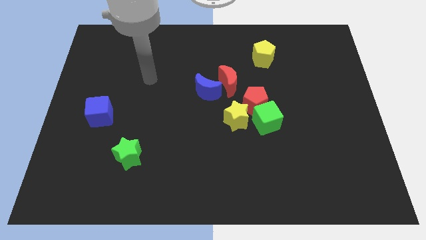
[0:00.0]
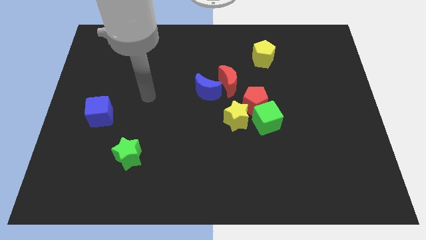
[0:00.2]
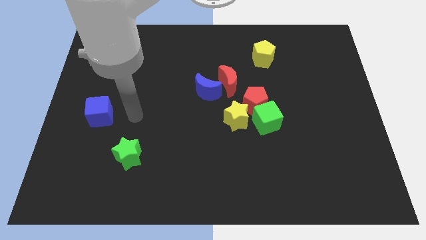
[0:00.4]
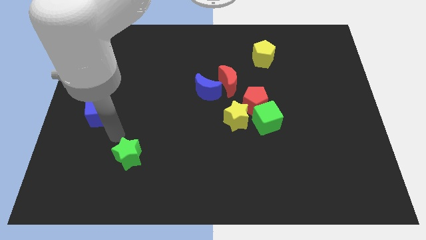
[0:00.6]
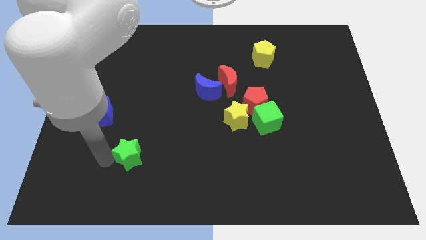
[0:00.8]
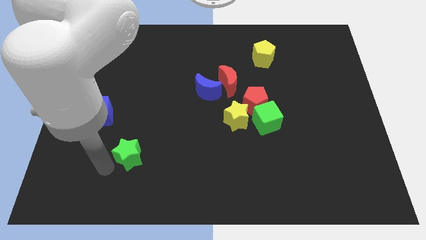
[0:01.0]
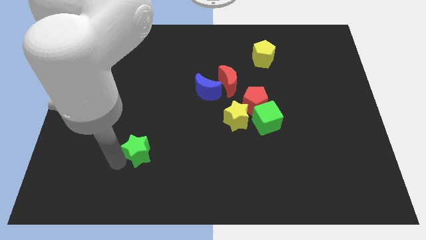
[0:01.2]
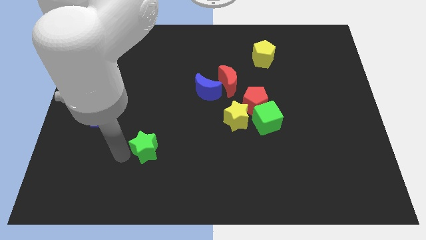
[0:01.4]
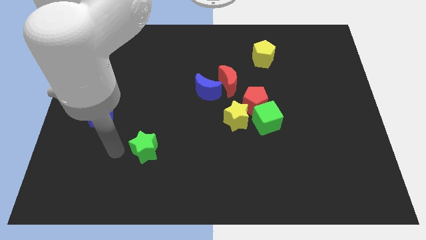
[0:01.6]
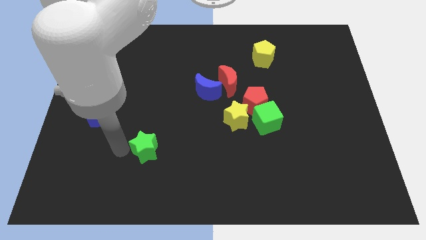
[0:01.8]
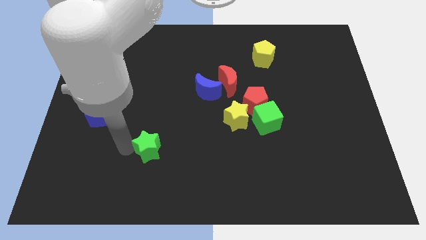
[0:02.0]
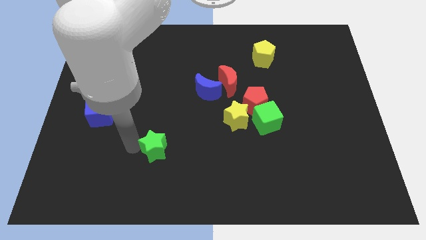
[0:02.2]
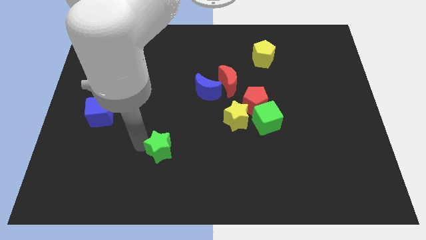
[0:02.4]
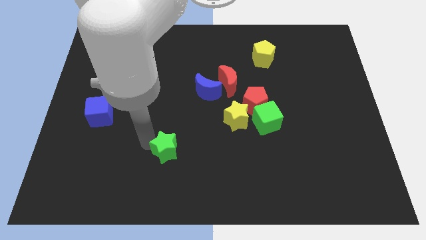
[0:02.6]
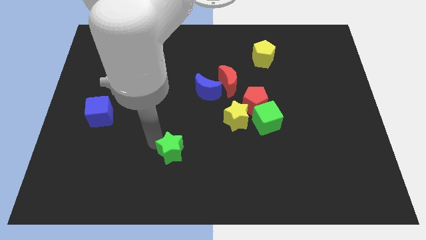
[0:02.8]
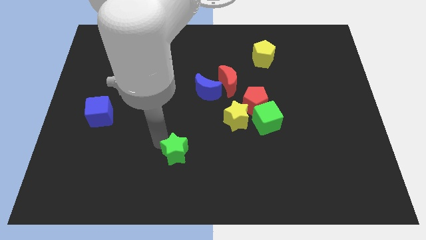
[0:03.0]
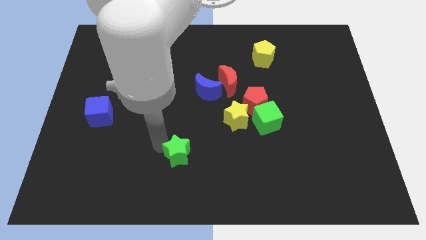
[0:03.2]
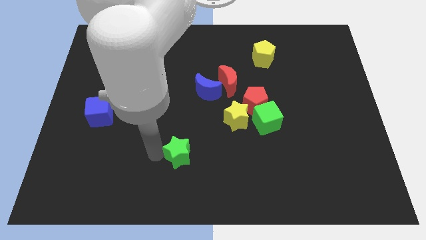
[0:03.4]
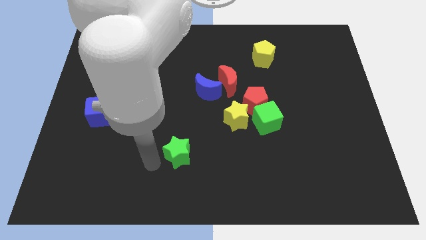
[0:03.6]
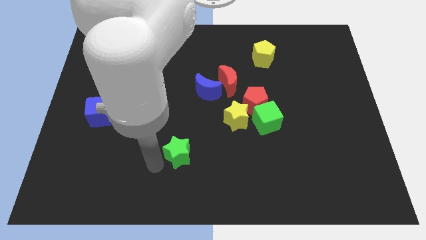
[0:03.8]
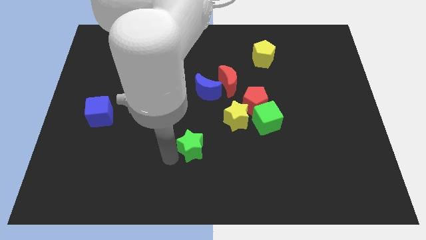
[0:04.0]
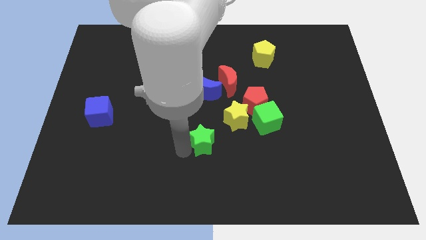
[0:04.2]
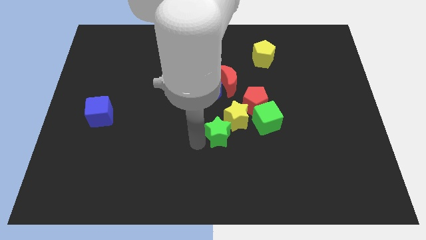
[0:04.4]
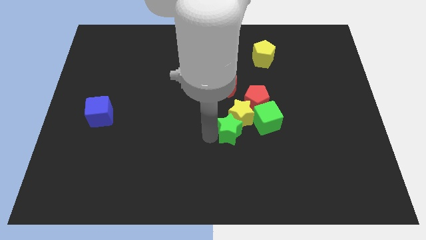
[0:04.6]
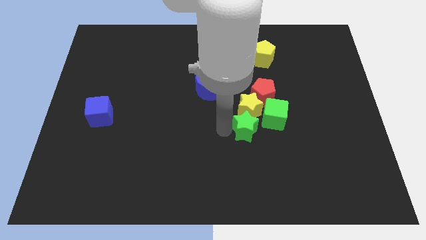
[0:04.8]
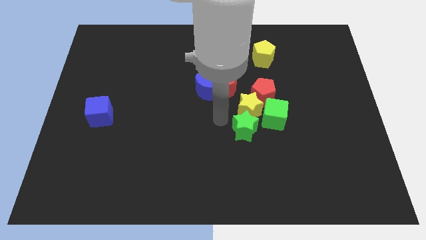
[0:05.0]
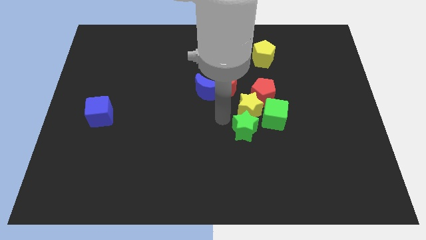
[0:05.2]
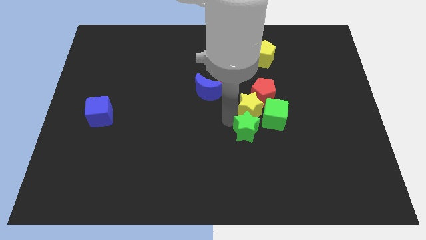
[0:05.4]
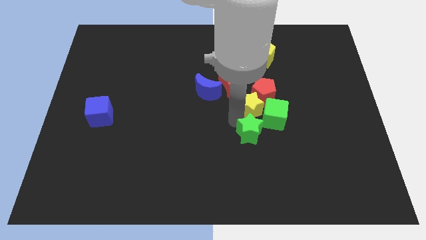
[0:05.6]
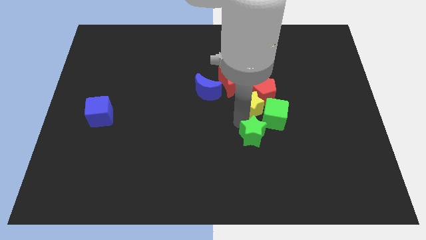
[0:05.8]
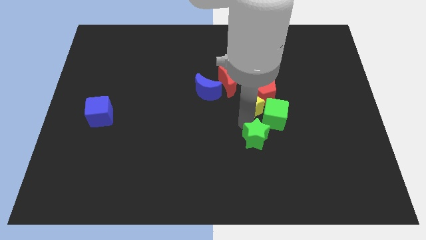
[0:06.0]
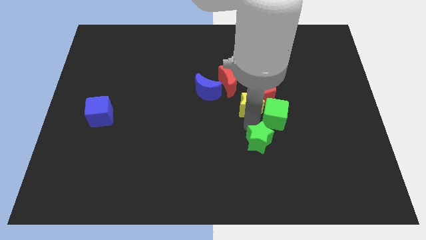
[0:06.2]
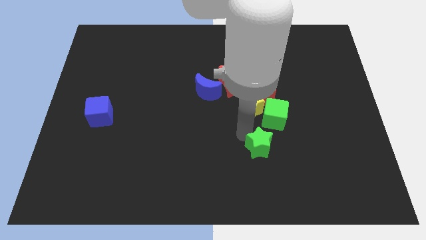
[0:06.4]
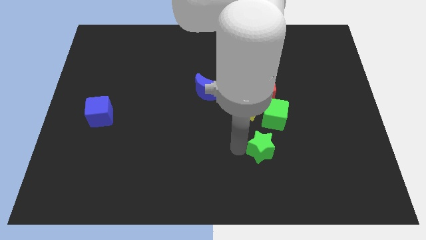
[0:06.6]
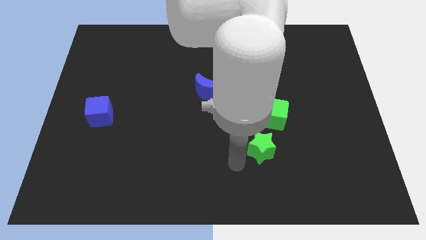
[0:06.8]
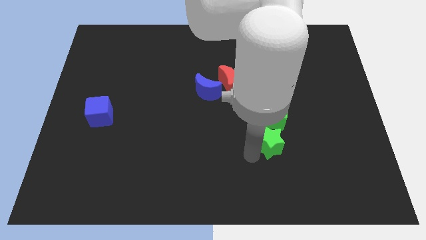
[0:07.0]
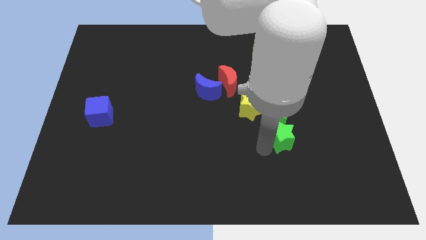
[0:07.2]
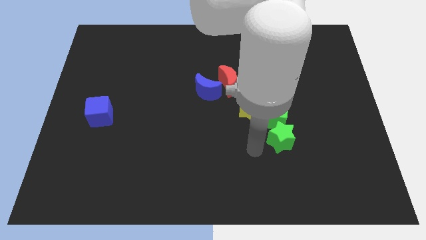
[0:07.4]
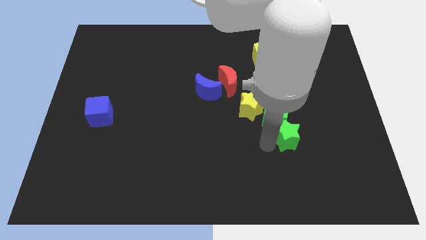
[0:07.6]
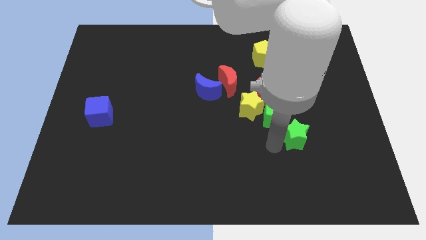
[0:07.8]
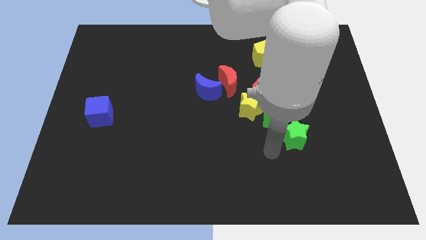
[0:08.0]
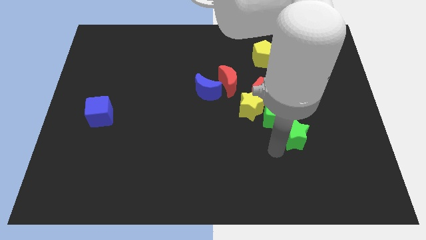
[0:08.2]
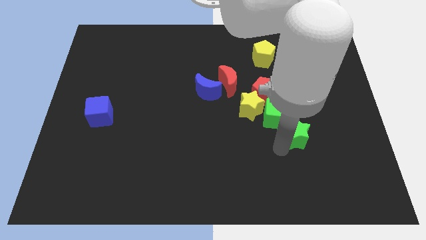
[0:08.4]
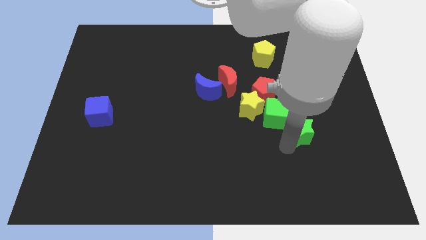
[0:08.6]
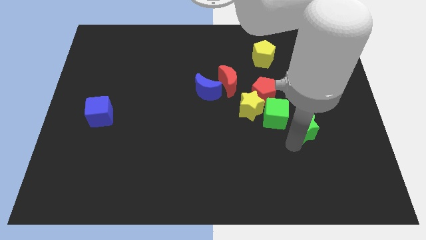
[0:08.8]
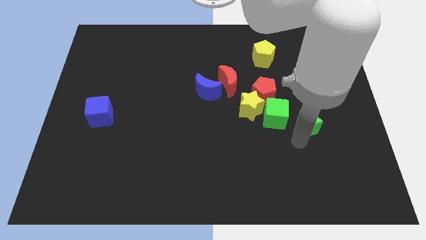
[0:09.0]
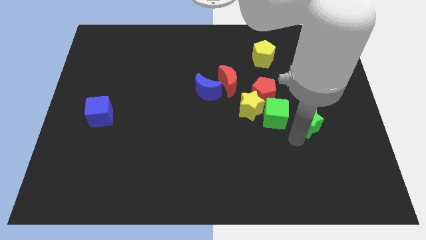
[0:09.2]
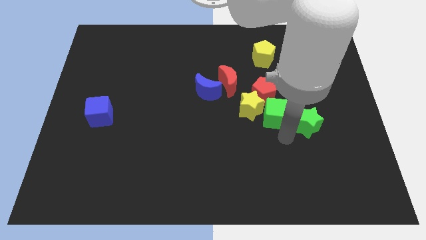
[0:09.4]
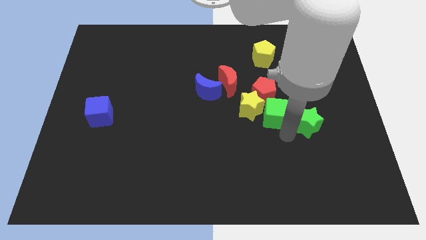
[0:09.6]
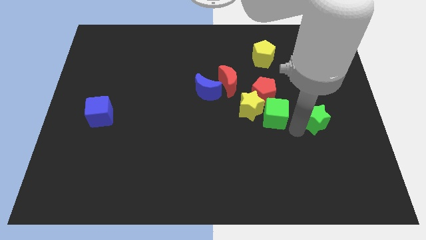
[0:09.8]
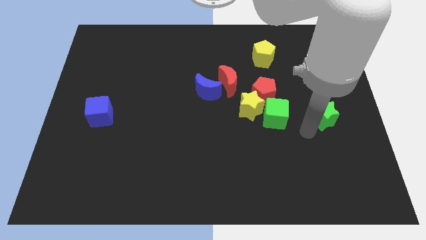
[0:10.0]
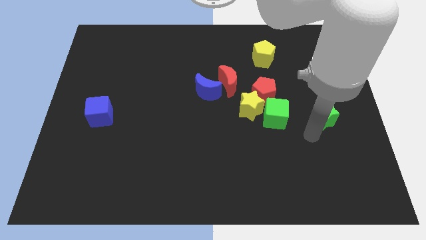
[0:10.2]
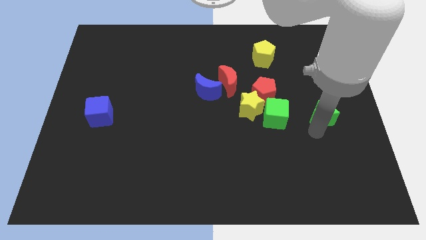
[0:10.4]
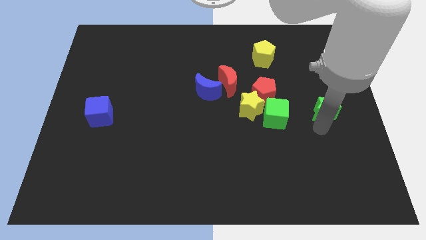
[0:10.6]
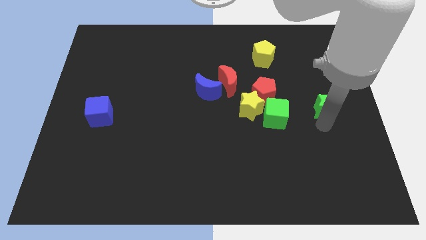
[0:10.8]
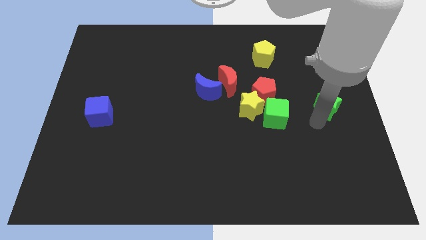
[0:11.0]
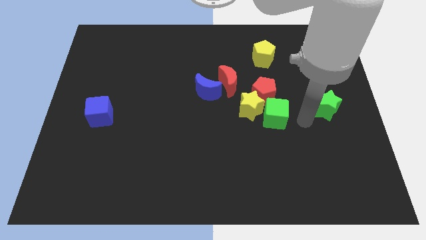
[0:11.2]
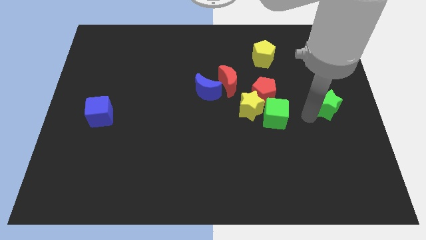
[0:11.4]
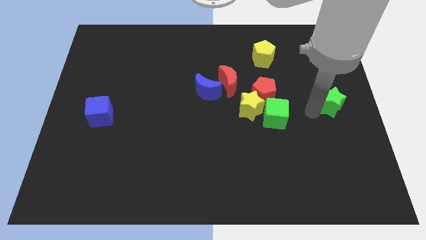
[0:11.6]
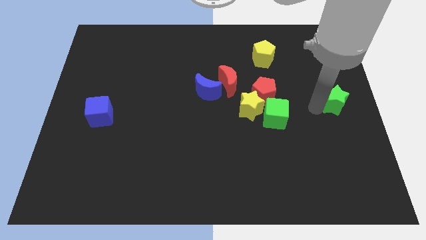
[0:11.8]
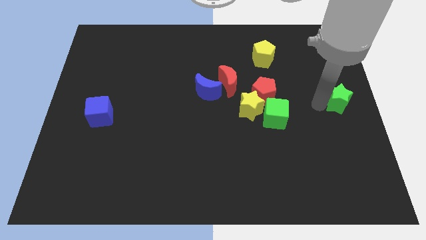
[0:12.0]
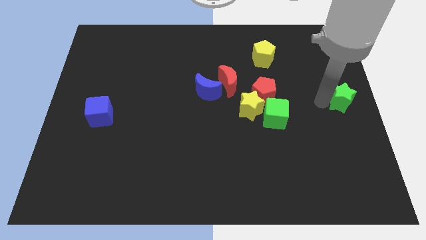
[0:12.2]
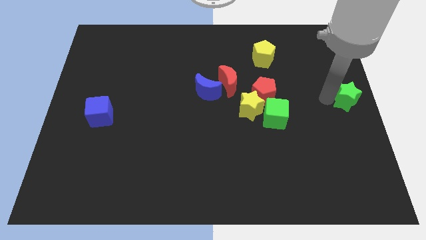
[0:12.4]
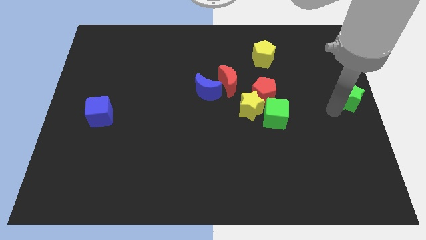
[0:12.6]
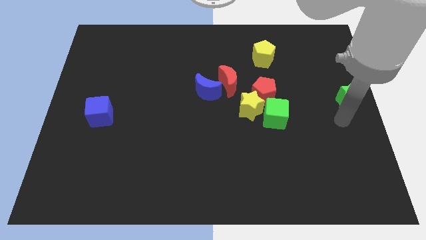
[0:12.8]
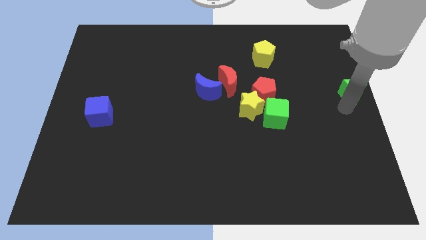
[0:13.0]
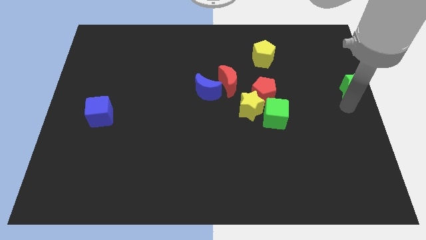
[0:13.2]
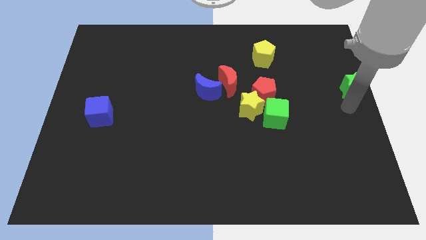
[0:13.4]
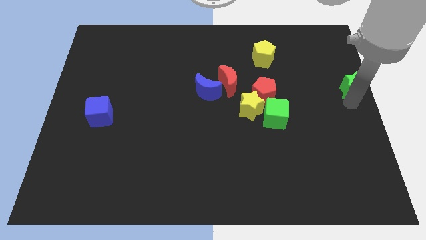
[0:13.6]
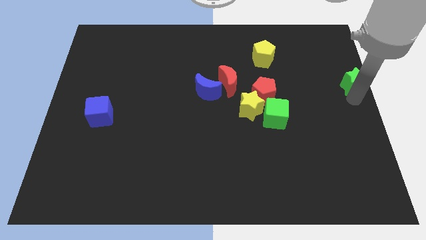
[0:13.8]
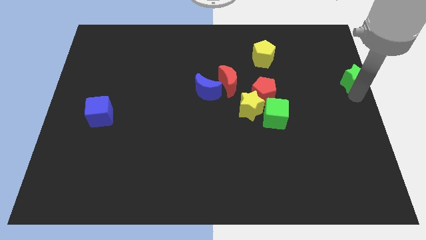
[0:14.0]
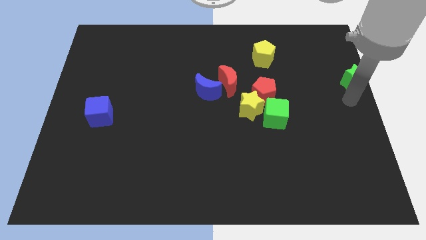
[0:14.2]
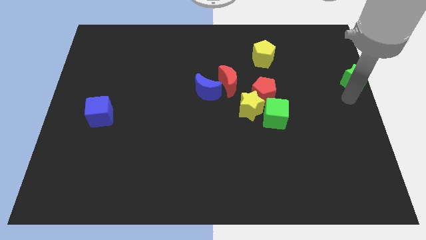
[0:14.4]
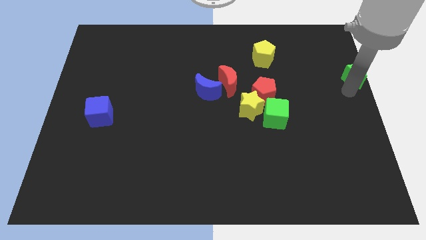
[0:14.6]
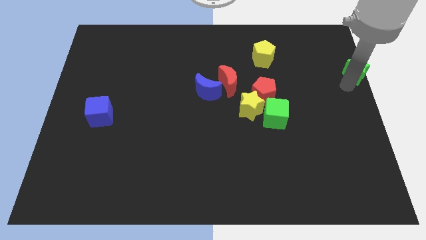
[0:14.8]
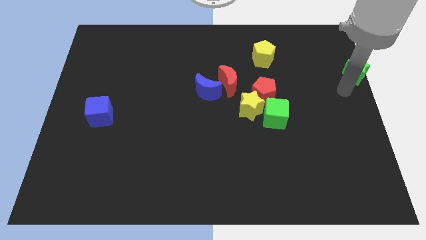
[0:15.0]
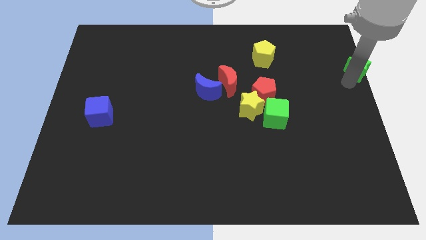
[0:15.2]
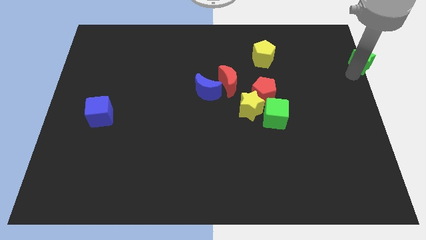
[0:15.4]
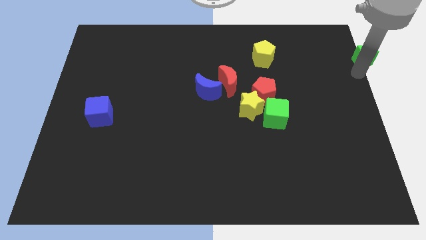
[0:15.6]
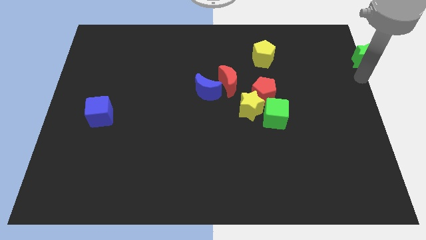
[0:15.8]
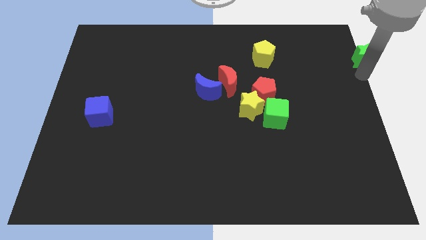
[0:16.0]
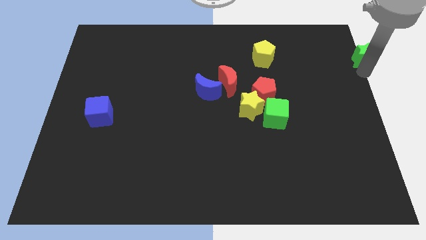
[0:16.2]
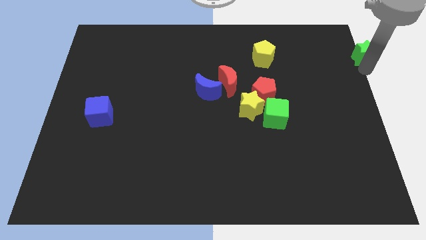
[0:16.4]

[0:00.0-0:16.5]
move the green star to the upper right corner
